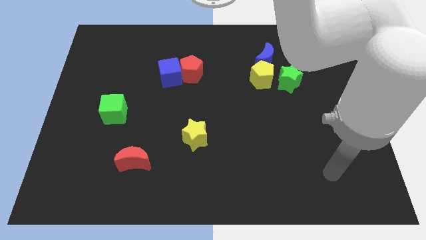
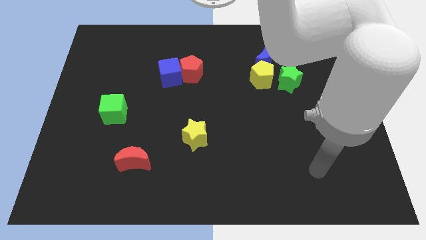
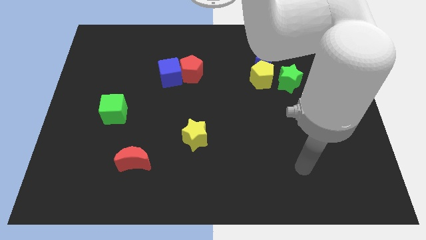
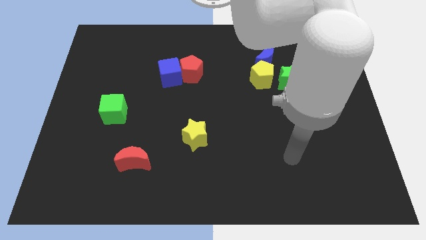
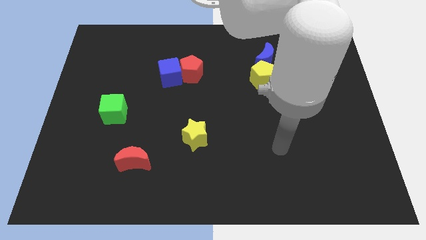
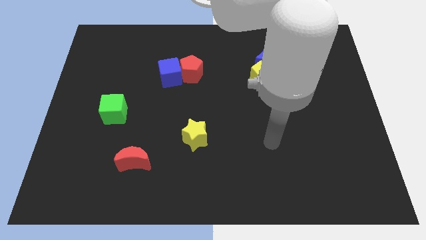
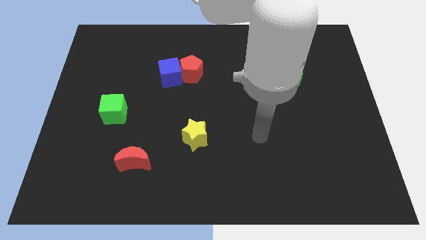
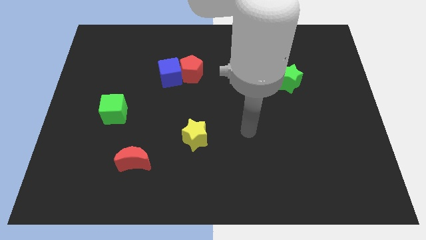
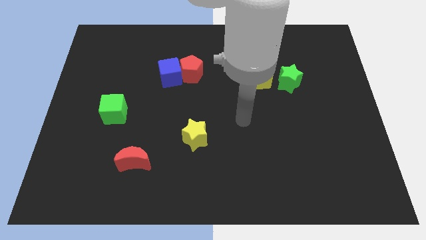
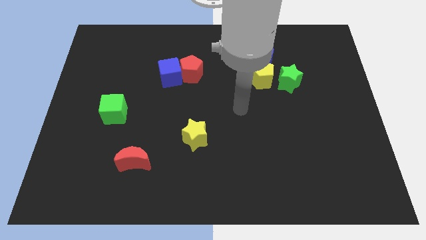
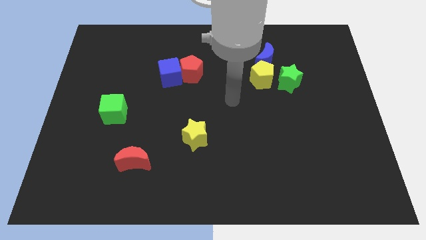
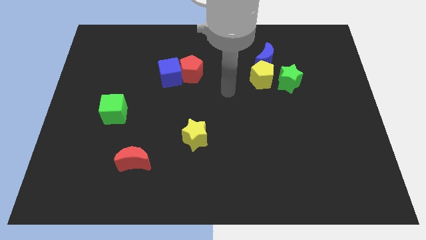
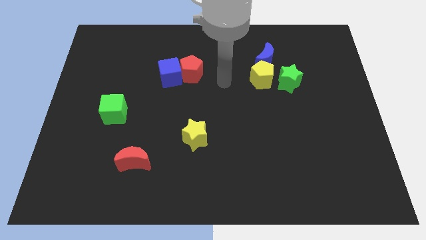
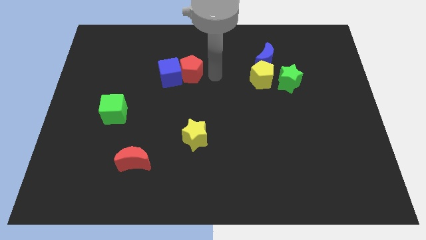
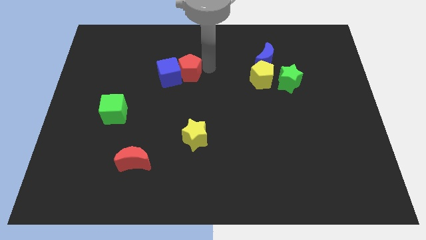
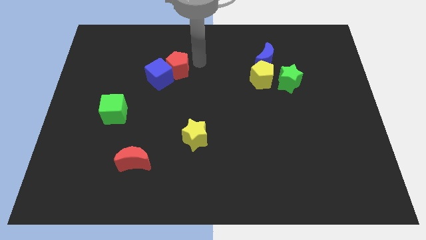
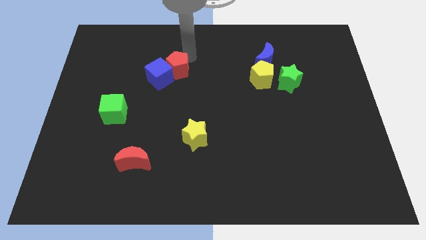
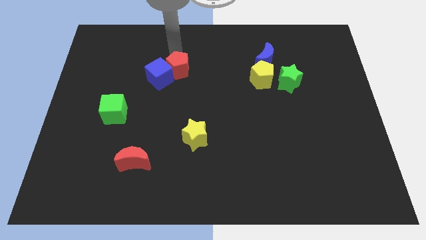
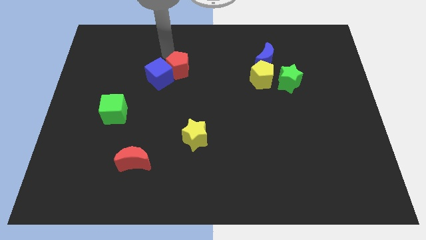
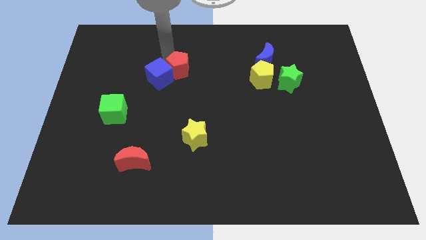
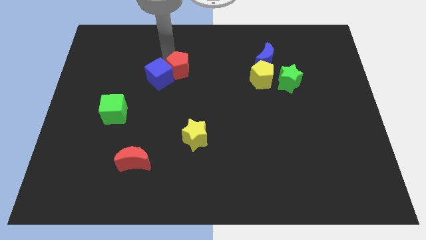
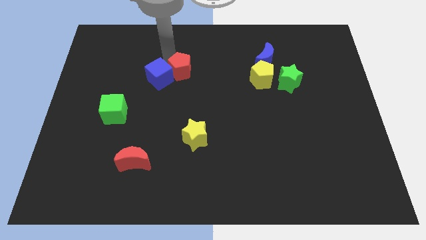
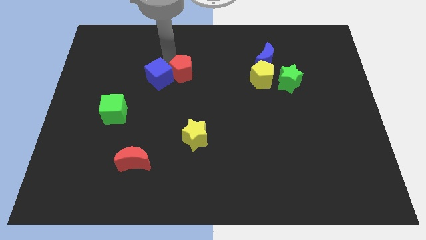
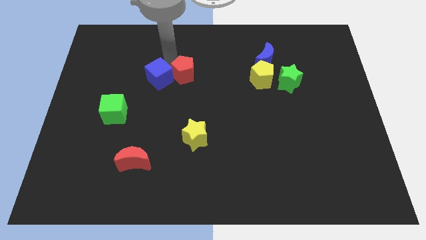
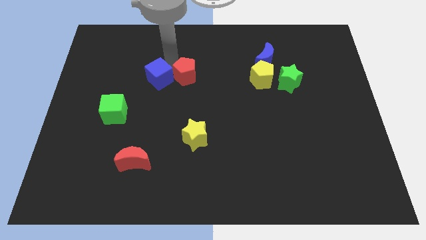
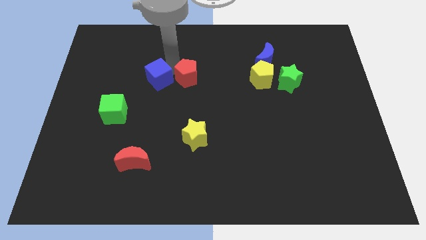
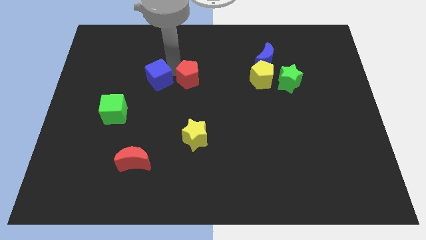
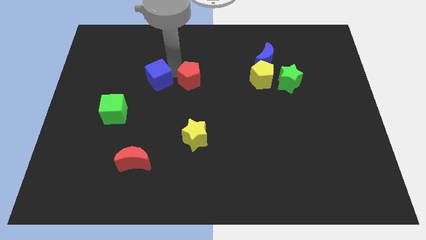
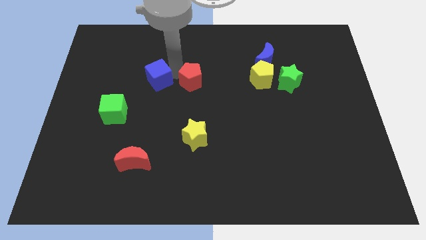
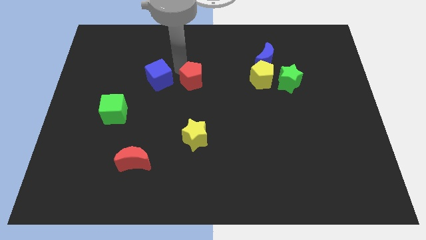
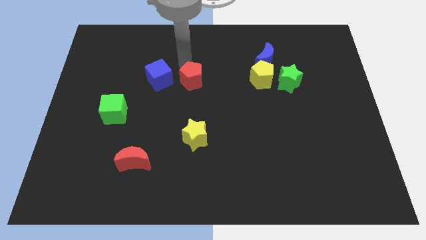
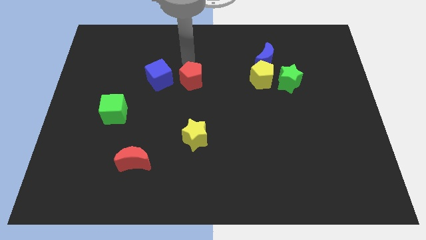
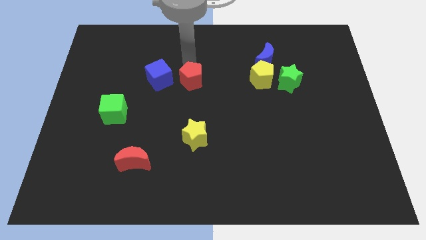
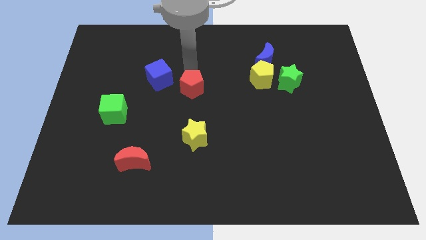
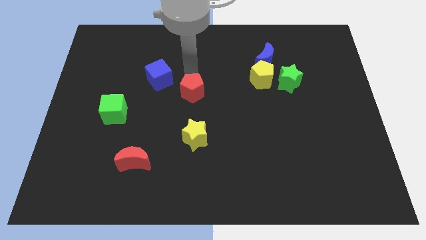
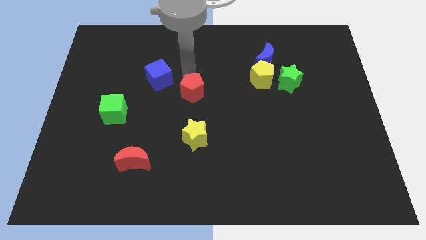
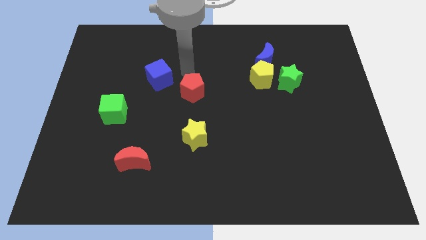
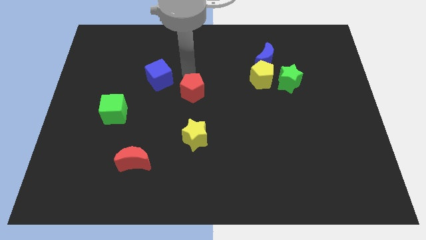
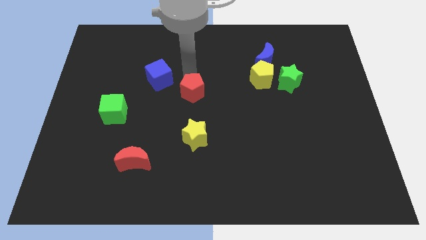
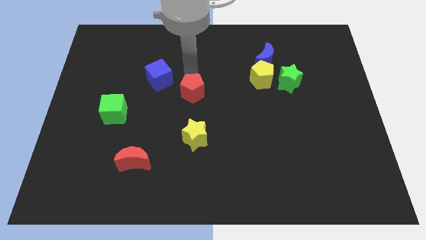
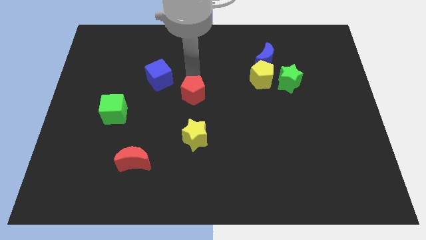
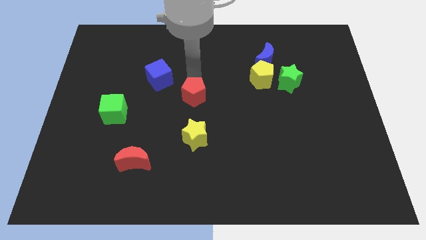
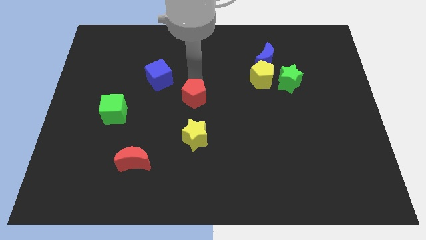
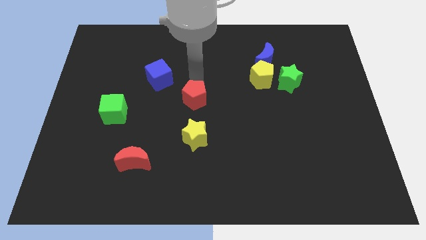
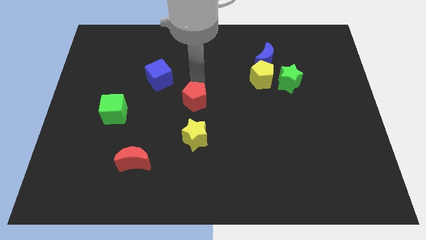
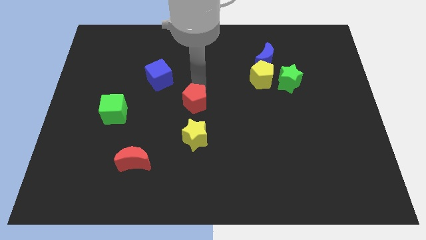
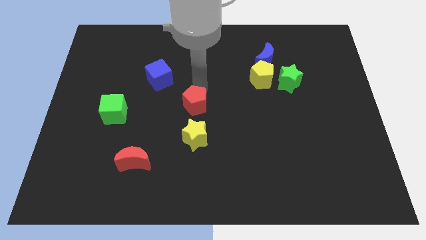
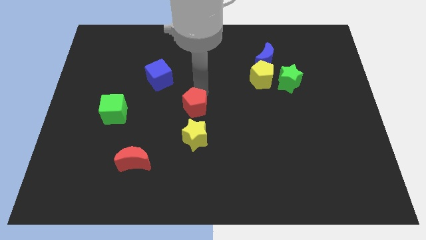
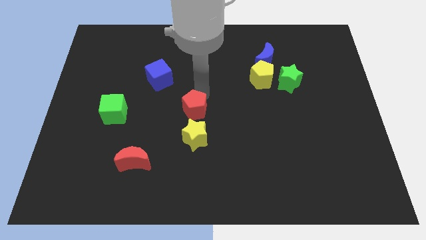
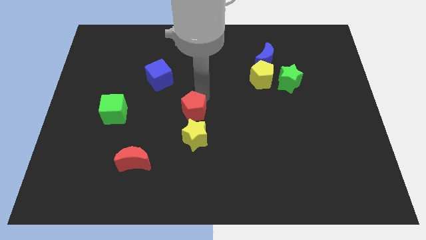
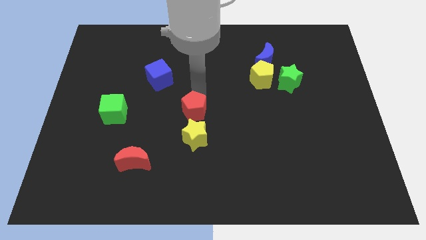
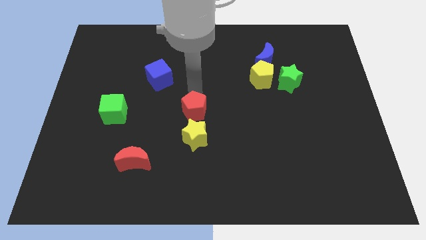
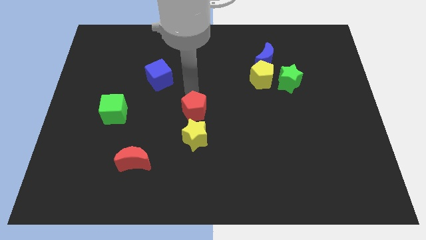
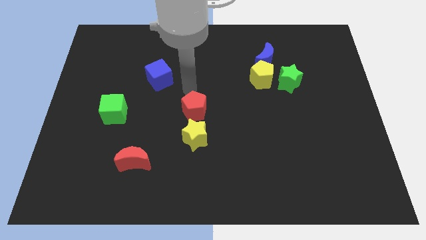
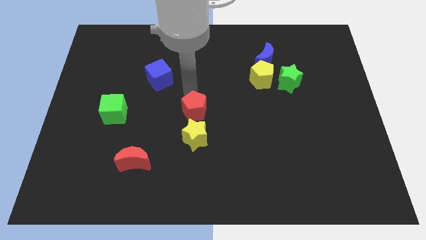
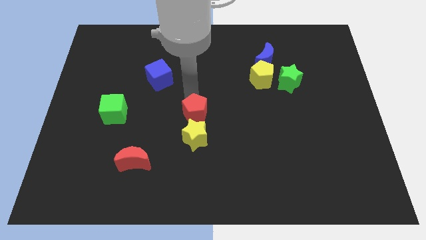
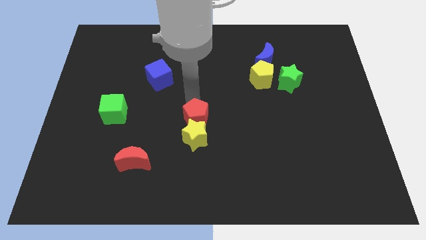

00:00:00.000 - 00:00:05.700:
move the red pentagon towards the yellow star
